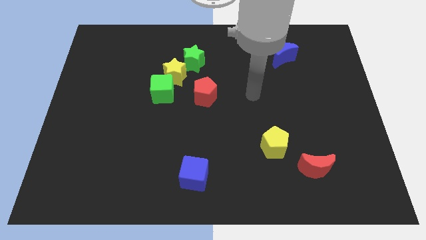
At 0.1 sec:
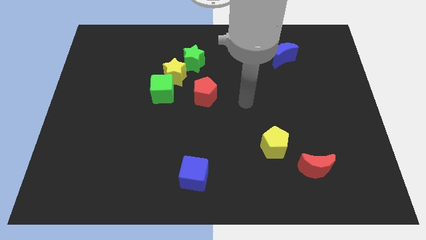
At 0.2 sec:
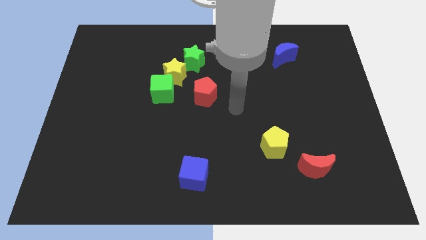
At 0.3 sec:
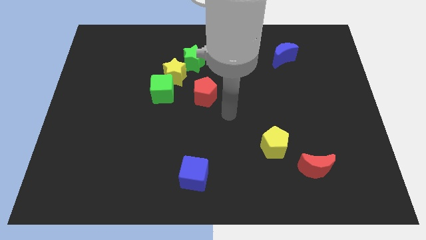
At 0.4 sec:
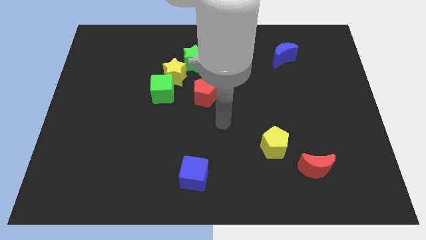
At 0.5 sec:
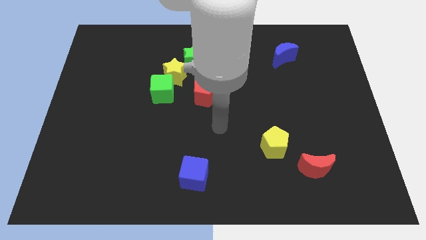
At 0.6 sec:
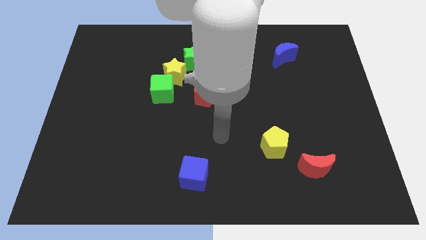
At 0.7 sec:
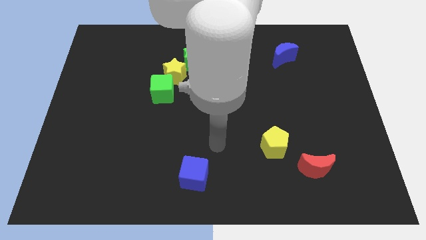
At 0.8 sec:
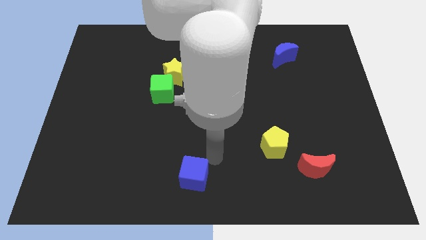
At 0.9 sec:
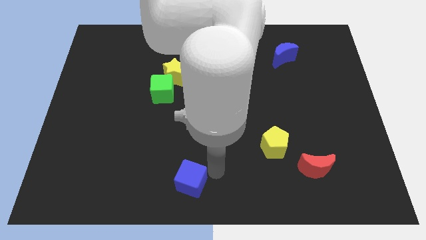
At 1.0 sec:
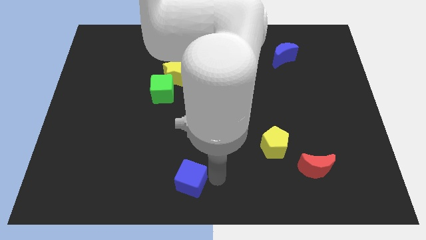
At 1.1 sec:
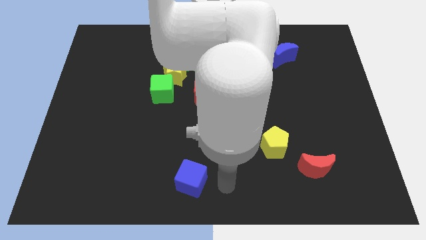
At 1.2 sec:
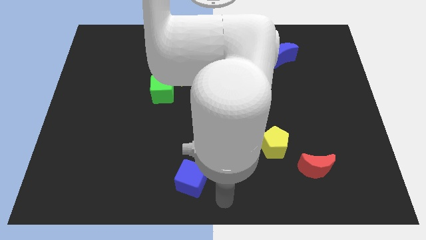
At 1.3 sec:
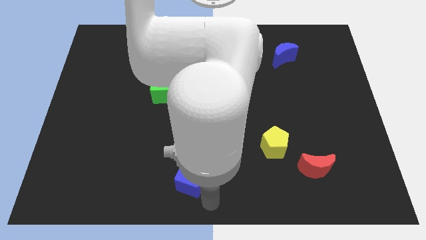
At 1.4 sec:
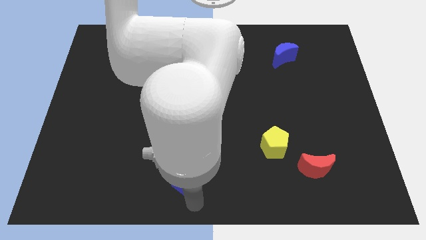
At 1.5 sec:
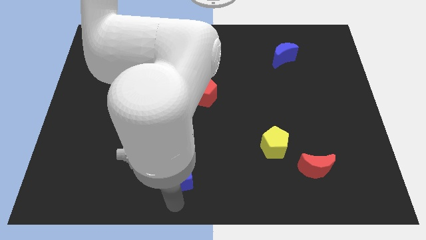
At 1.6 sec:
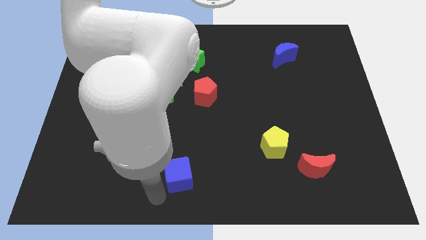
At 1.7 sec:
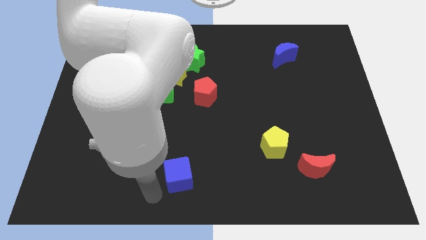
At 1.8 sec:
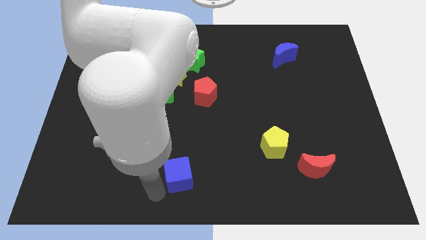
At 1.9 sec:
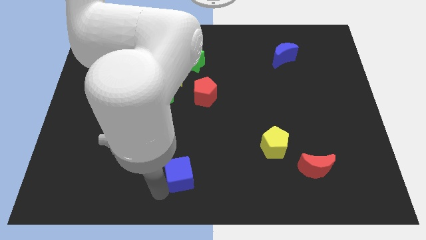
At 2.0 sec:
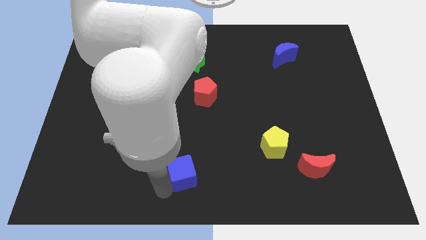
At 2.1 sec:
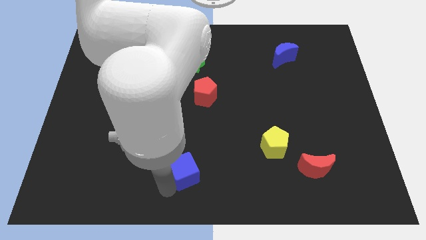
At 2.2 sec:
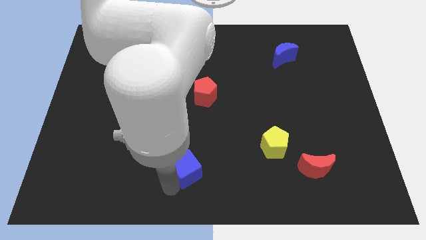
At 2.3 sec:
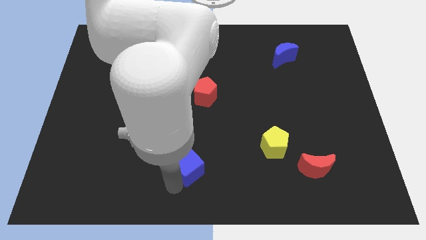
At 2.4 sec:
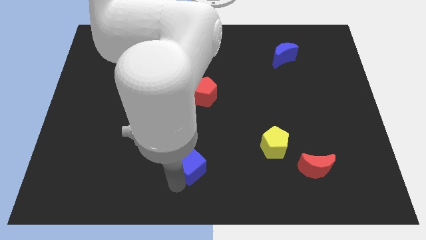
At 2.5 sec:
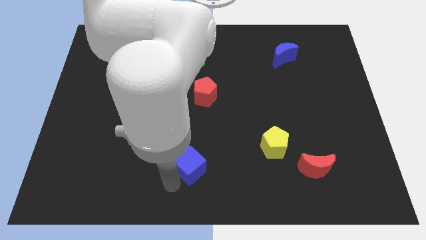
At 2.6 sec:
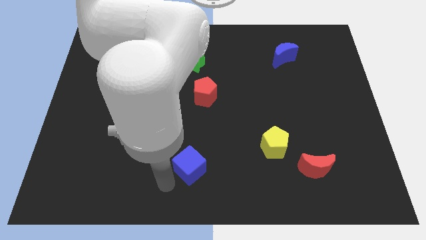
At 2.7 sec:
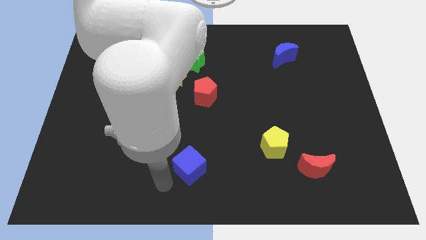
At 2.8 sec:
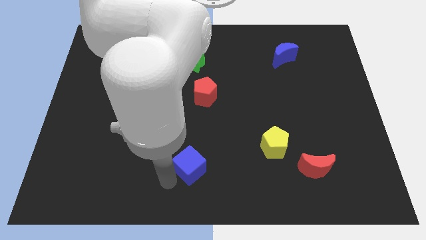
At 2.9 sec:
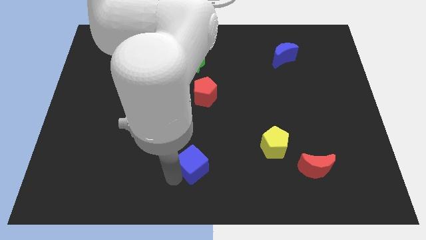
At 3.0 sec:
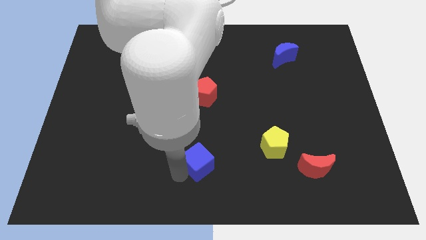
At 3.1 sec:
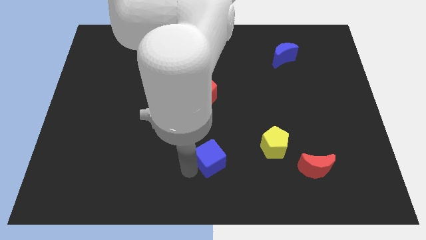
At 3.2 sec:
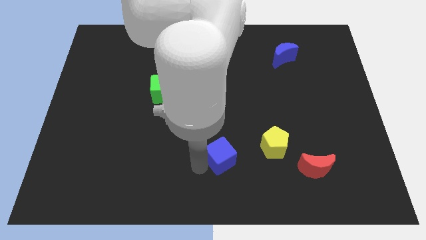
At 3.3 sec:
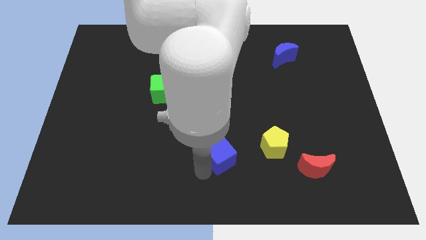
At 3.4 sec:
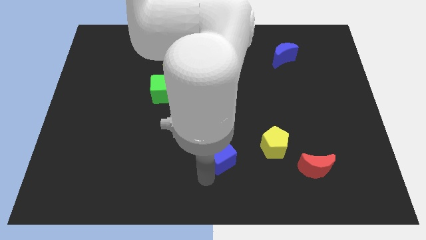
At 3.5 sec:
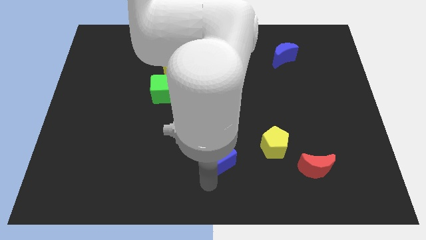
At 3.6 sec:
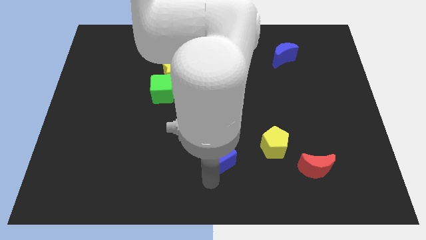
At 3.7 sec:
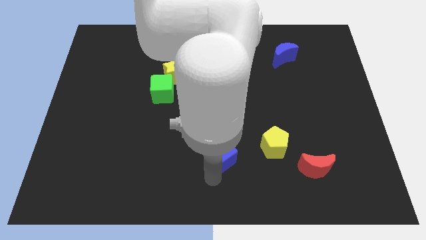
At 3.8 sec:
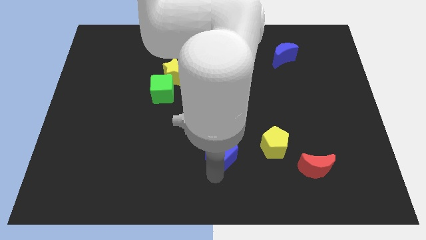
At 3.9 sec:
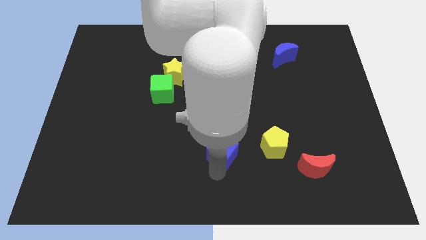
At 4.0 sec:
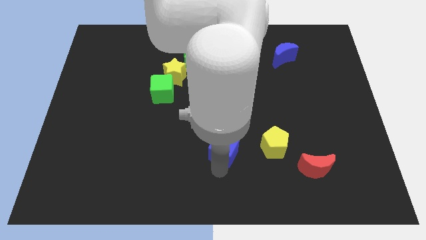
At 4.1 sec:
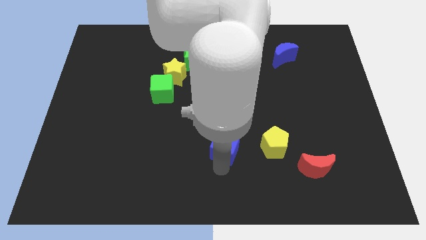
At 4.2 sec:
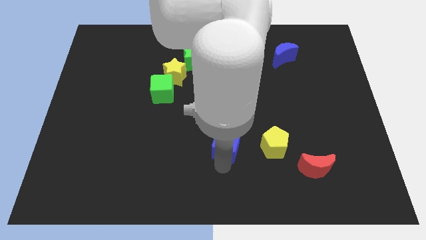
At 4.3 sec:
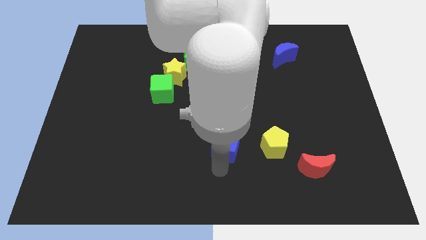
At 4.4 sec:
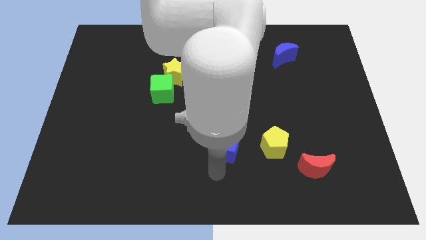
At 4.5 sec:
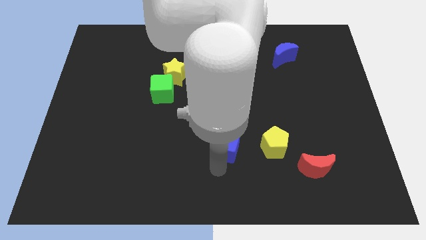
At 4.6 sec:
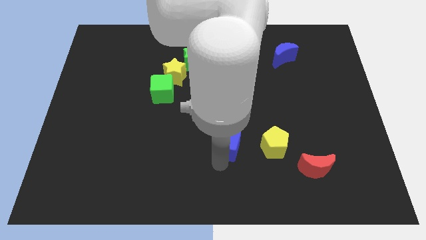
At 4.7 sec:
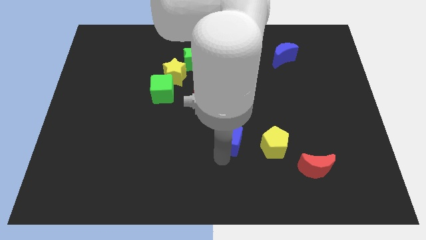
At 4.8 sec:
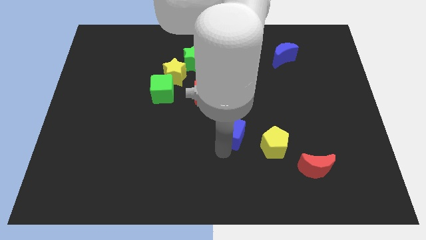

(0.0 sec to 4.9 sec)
push the blue cube diagonally up and to the left of the yellow pentagon

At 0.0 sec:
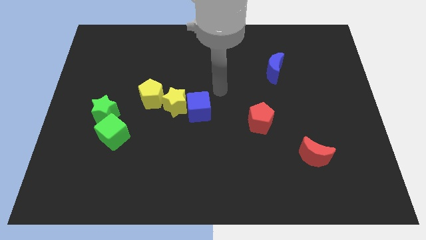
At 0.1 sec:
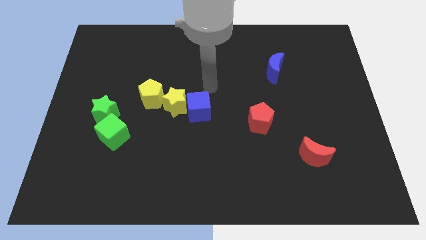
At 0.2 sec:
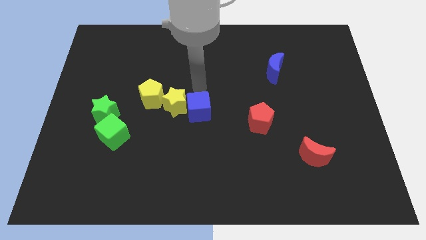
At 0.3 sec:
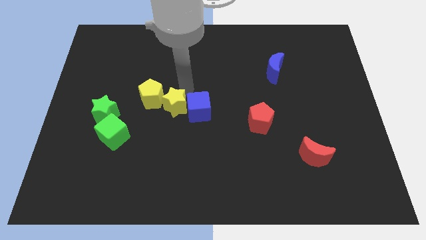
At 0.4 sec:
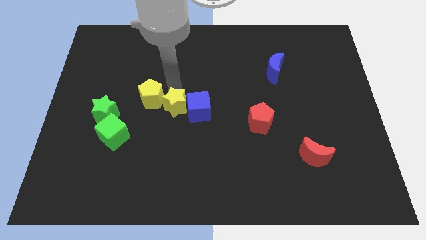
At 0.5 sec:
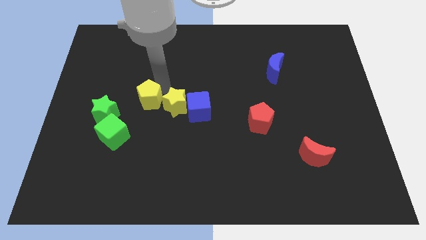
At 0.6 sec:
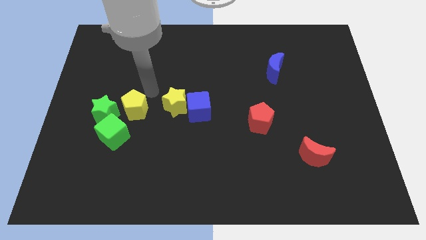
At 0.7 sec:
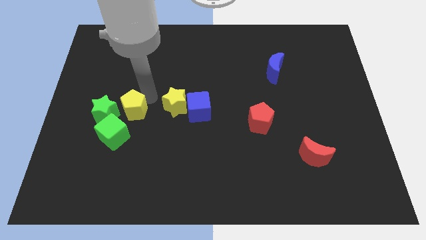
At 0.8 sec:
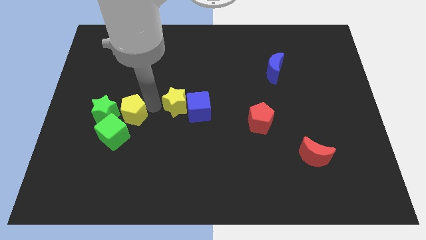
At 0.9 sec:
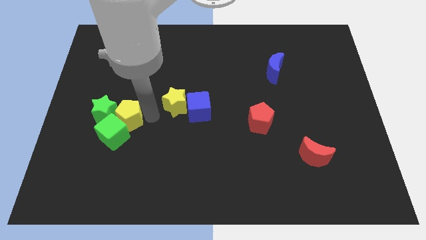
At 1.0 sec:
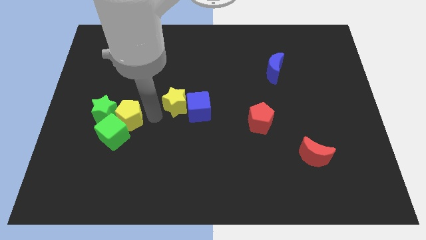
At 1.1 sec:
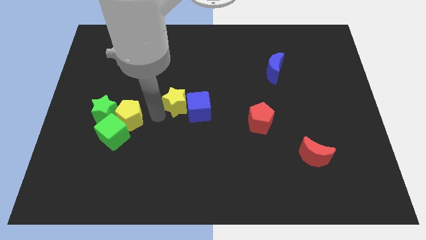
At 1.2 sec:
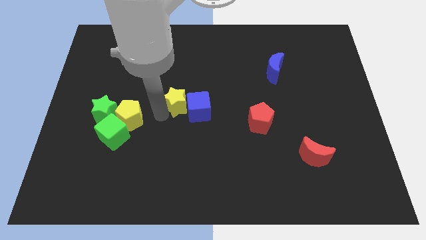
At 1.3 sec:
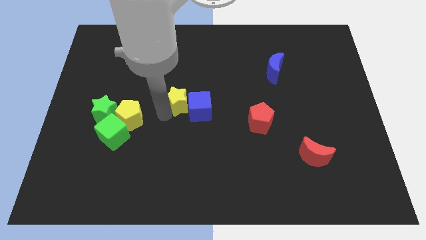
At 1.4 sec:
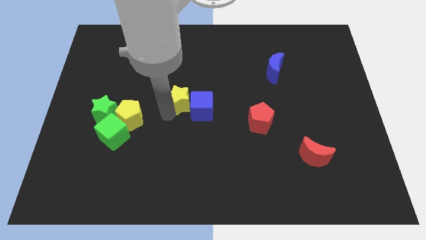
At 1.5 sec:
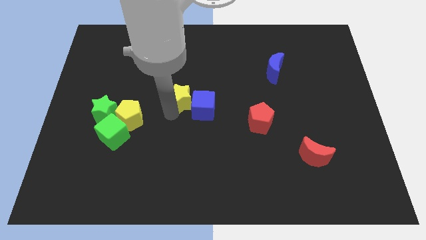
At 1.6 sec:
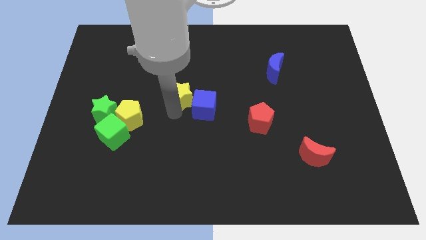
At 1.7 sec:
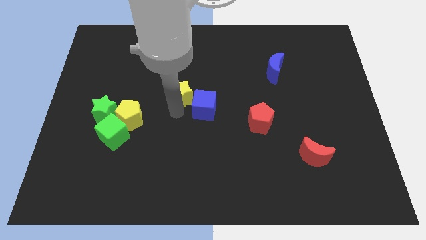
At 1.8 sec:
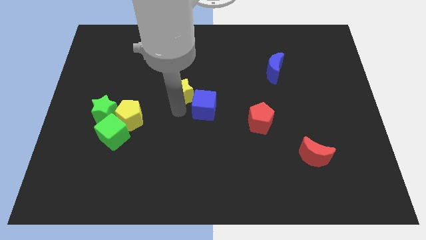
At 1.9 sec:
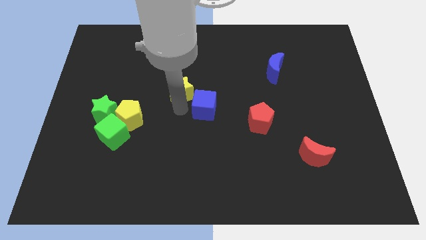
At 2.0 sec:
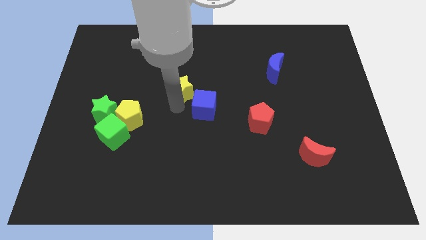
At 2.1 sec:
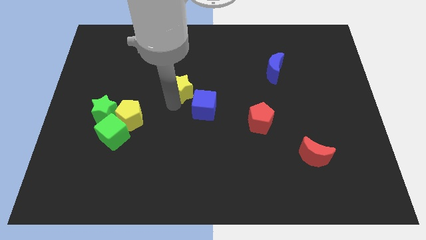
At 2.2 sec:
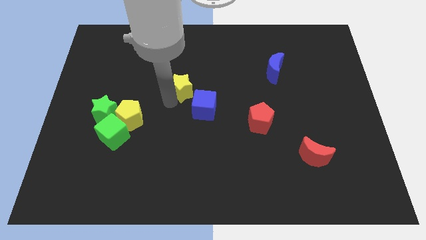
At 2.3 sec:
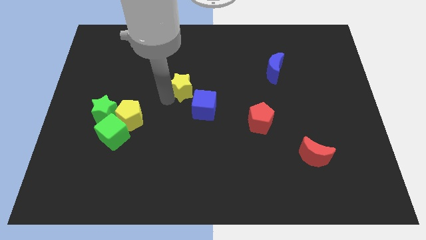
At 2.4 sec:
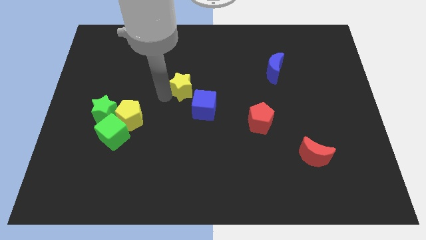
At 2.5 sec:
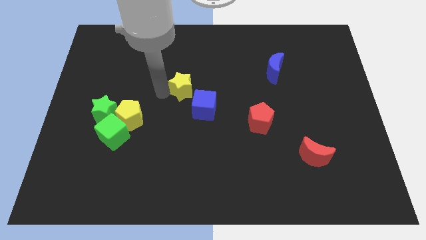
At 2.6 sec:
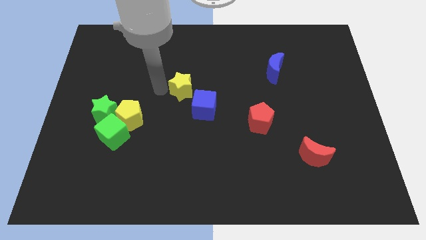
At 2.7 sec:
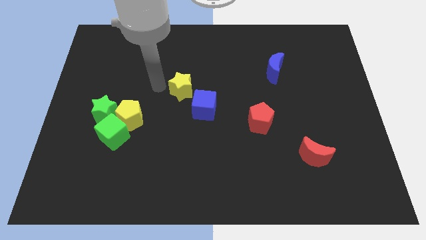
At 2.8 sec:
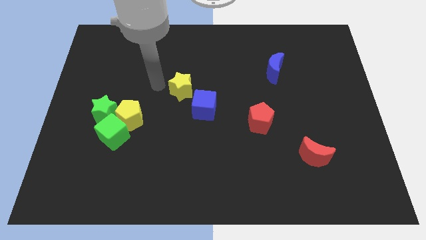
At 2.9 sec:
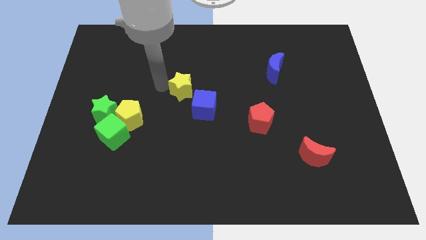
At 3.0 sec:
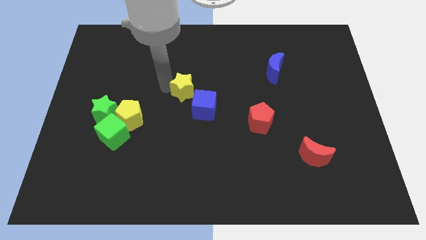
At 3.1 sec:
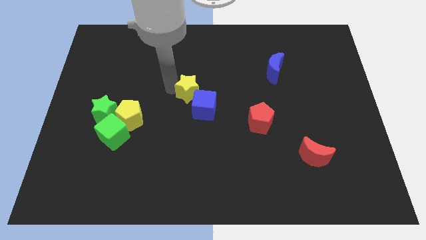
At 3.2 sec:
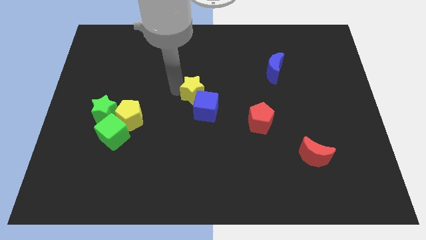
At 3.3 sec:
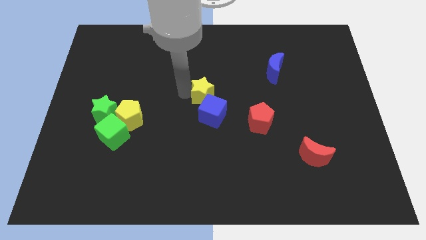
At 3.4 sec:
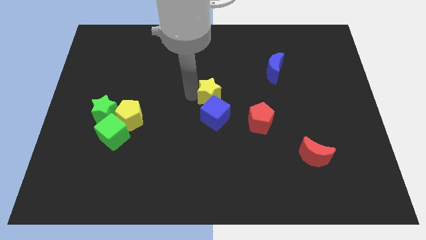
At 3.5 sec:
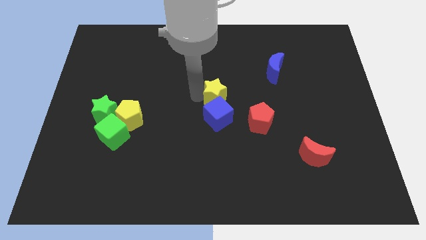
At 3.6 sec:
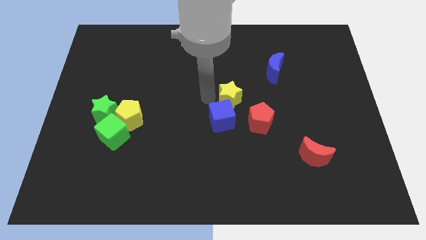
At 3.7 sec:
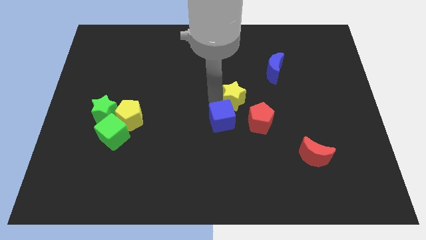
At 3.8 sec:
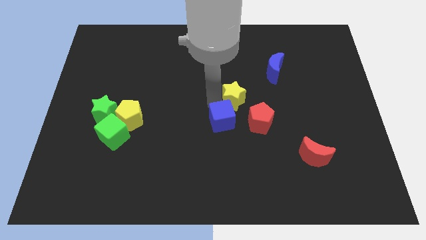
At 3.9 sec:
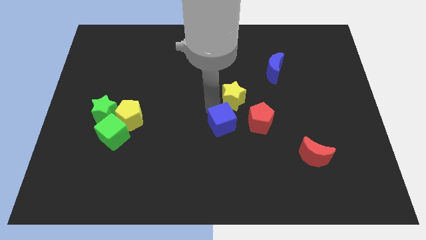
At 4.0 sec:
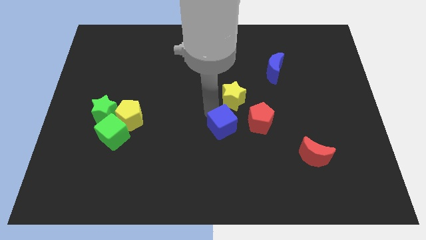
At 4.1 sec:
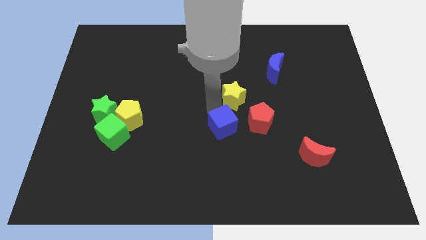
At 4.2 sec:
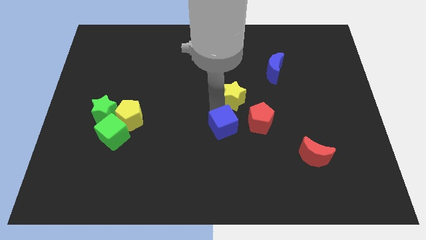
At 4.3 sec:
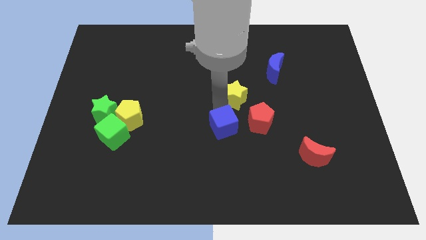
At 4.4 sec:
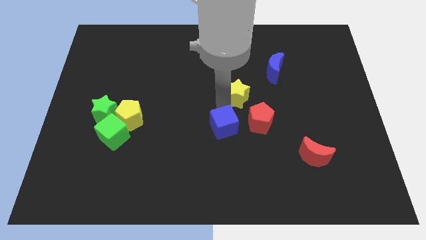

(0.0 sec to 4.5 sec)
put the yellow star to the top side of the red pentagon
